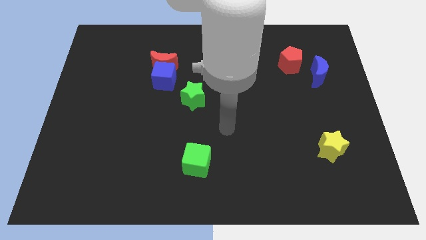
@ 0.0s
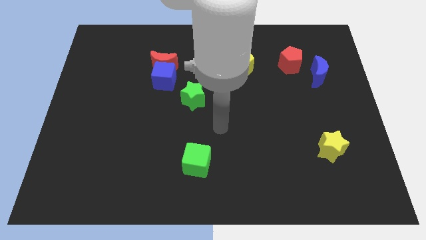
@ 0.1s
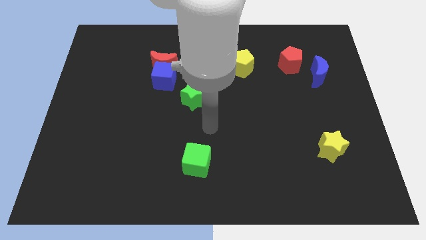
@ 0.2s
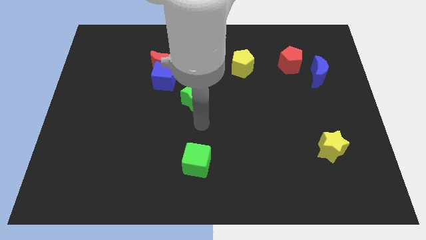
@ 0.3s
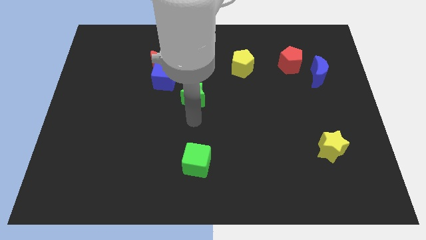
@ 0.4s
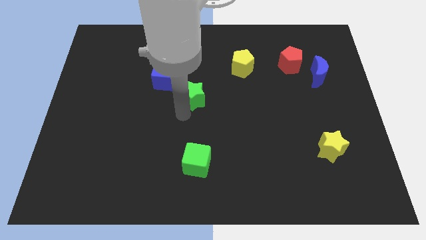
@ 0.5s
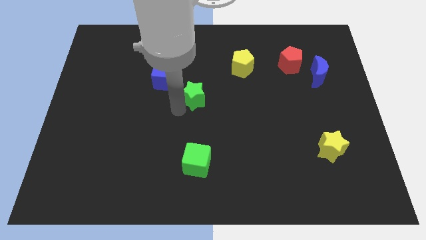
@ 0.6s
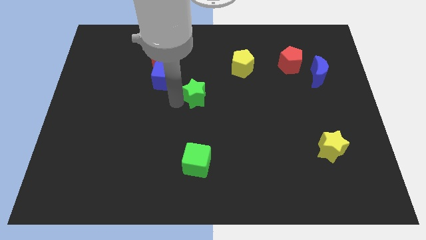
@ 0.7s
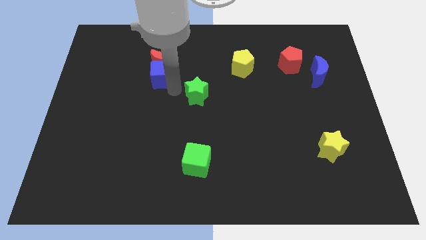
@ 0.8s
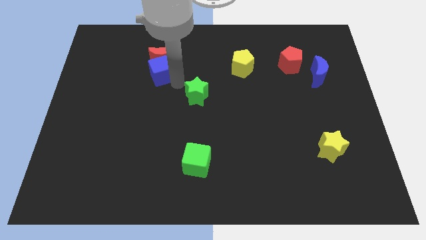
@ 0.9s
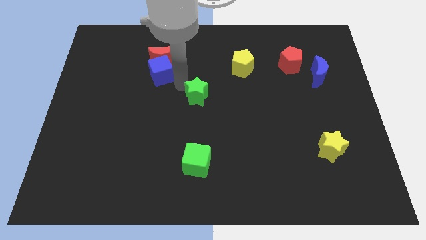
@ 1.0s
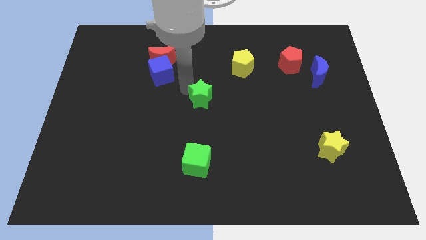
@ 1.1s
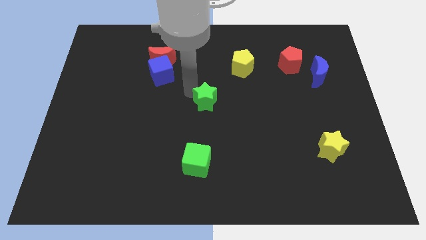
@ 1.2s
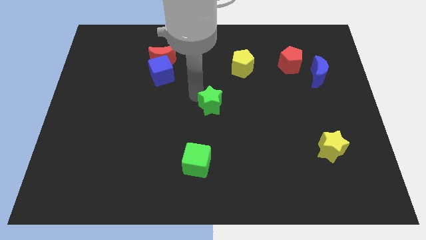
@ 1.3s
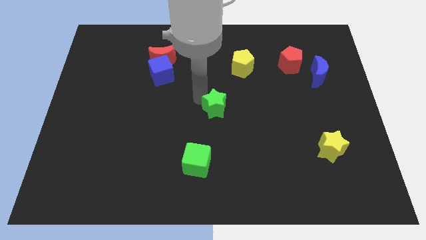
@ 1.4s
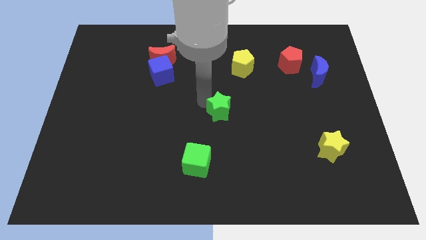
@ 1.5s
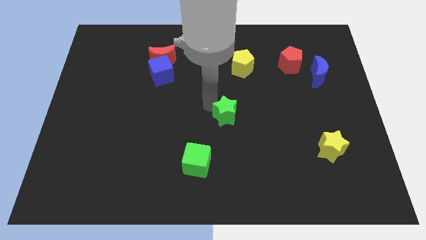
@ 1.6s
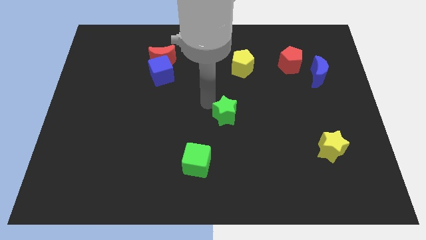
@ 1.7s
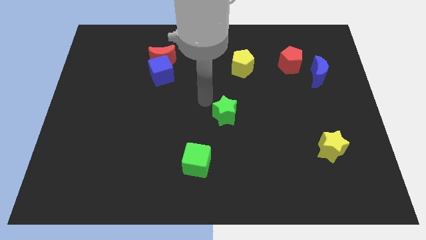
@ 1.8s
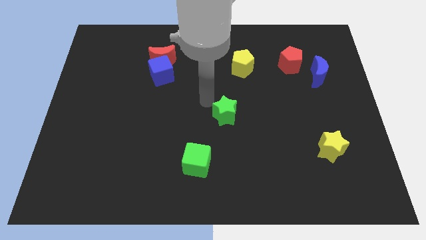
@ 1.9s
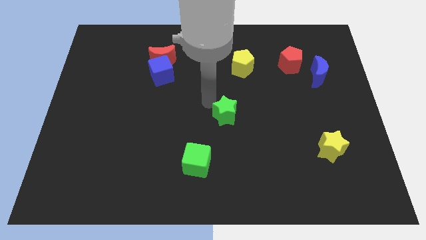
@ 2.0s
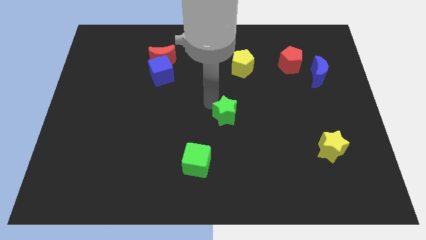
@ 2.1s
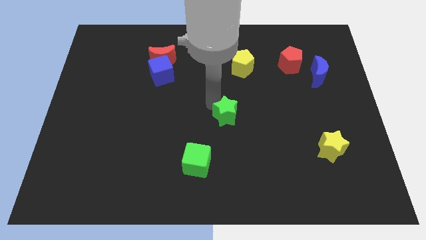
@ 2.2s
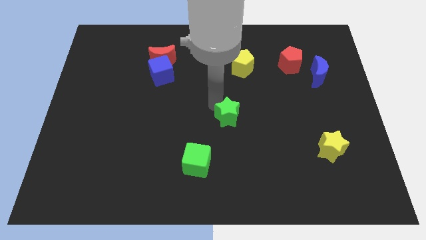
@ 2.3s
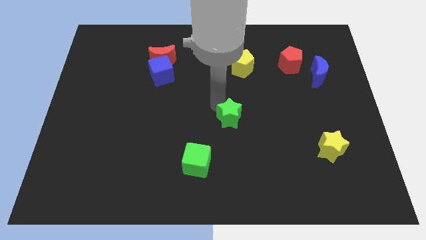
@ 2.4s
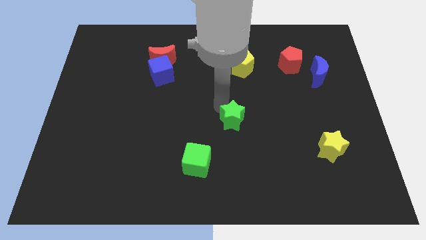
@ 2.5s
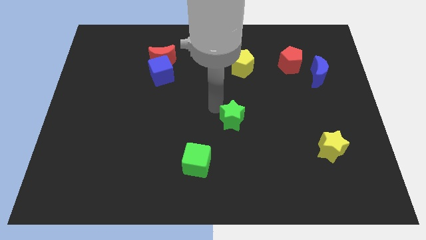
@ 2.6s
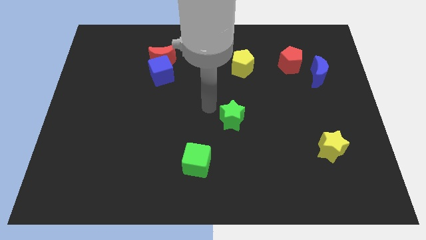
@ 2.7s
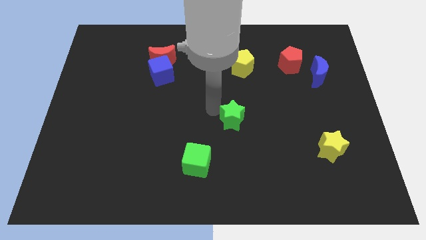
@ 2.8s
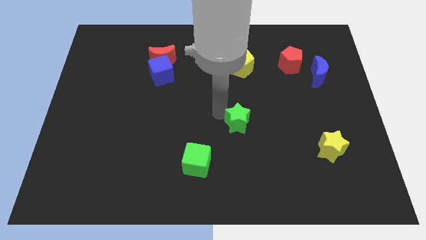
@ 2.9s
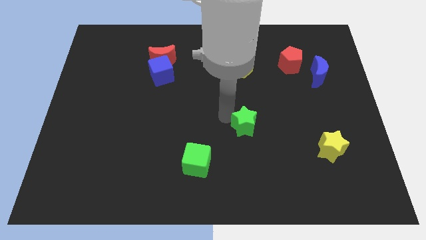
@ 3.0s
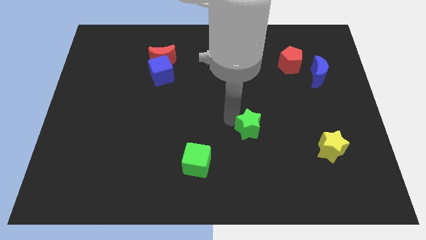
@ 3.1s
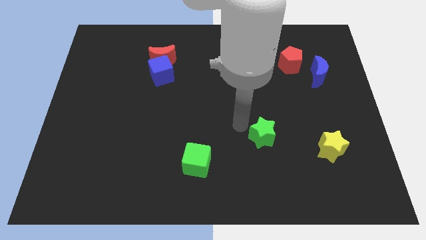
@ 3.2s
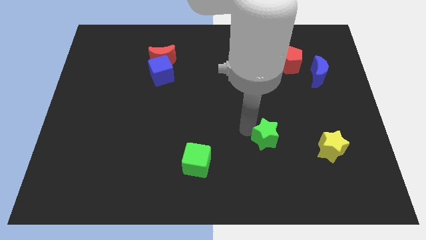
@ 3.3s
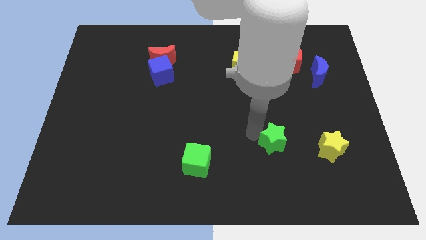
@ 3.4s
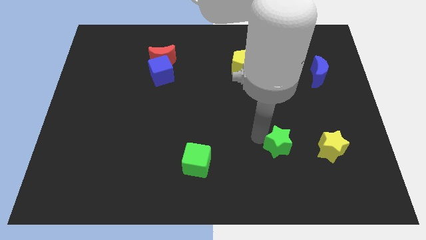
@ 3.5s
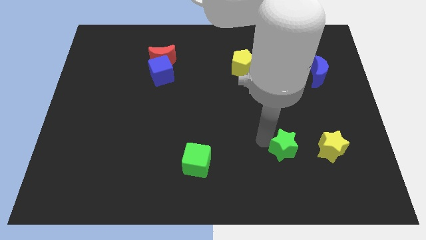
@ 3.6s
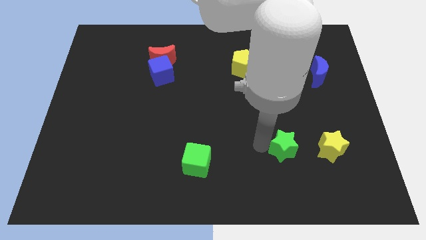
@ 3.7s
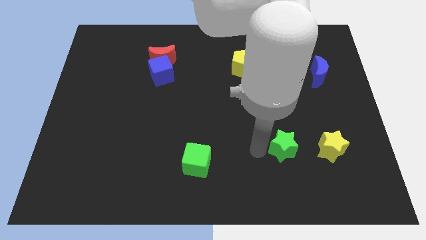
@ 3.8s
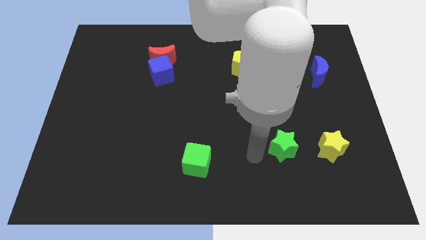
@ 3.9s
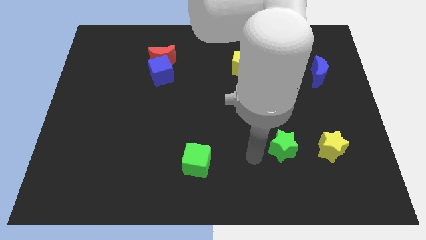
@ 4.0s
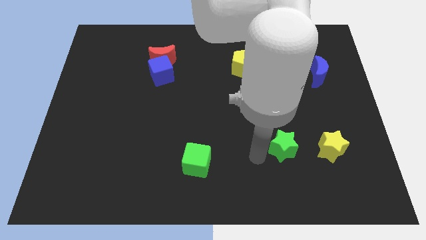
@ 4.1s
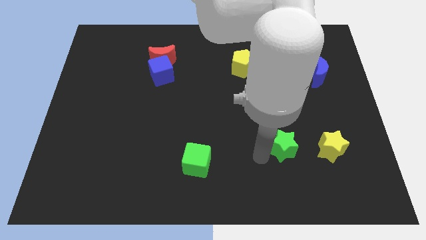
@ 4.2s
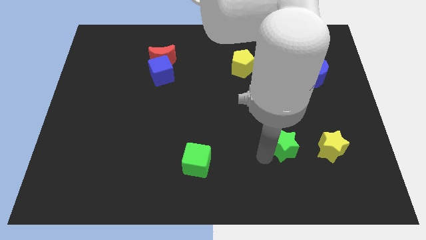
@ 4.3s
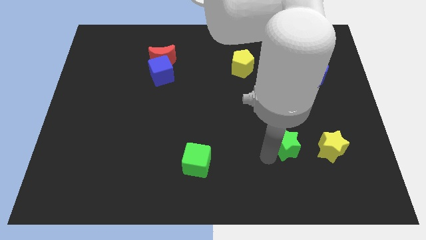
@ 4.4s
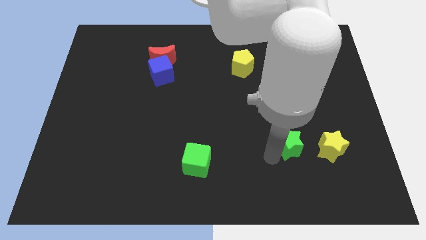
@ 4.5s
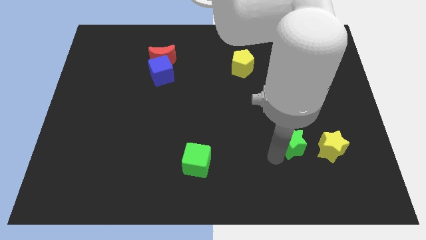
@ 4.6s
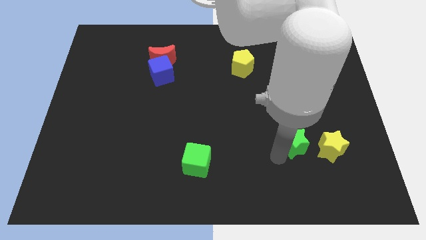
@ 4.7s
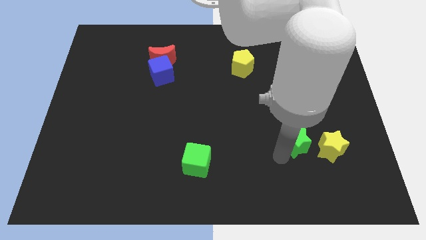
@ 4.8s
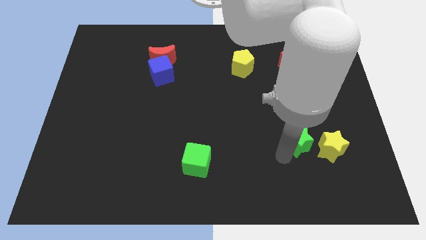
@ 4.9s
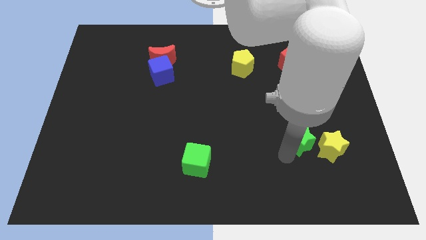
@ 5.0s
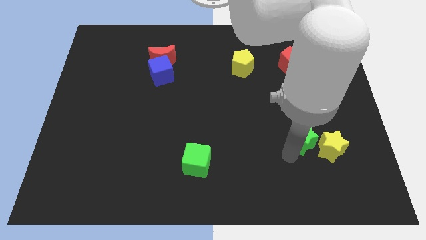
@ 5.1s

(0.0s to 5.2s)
put the green star to the yellow star

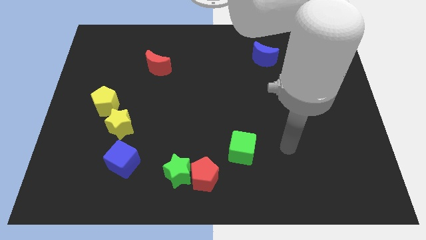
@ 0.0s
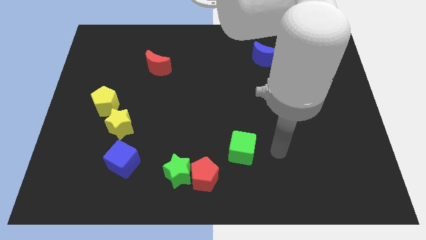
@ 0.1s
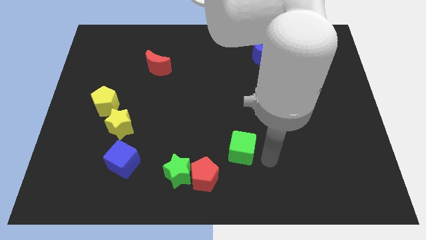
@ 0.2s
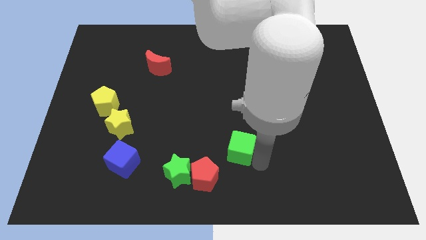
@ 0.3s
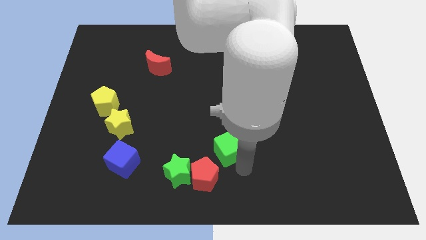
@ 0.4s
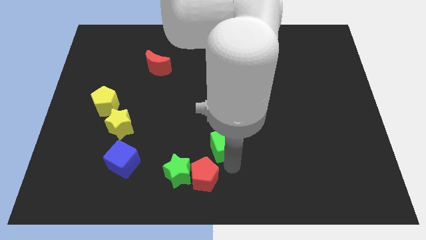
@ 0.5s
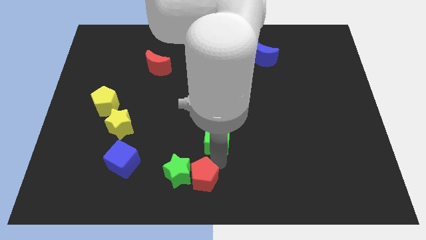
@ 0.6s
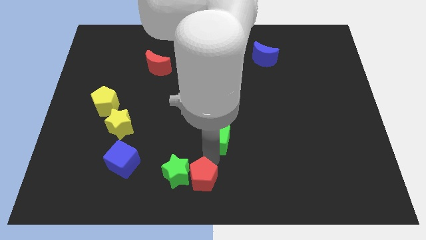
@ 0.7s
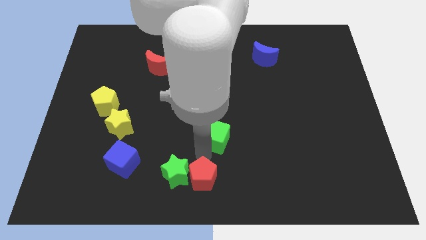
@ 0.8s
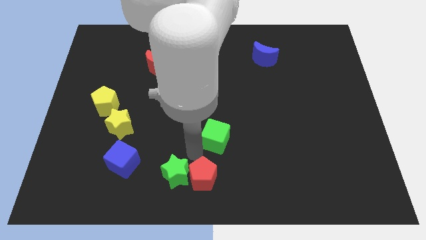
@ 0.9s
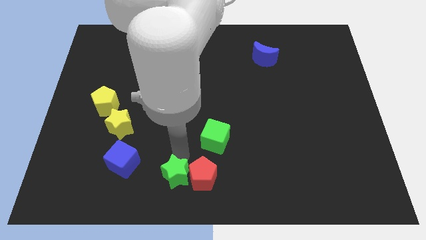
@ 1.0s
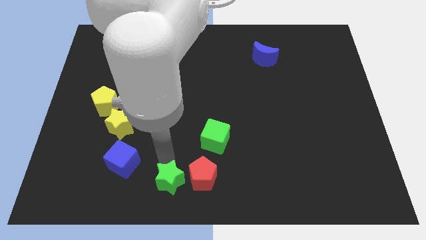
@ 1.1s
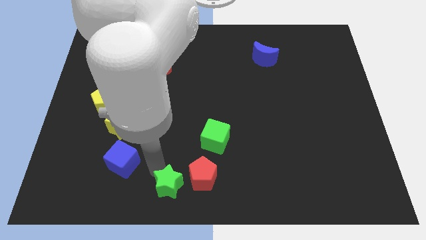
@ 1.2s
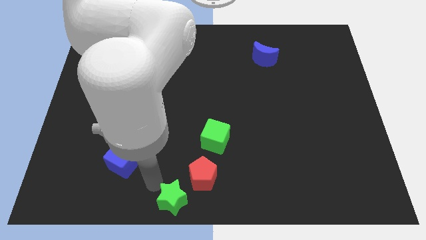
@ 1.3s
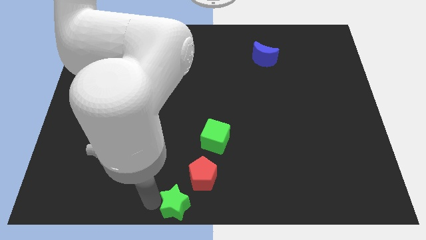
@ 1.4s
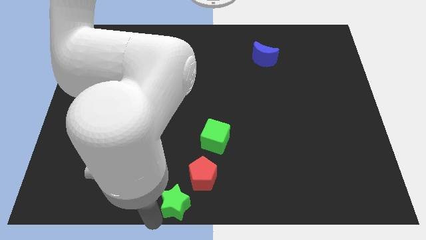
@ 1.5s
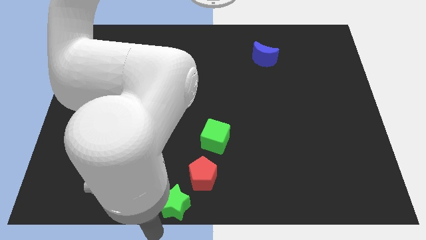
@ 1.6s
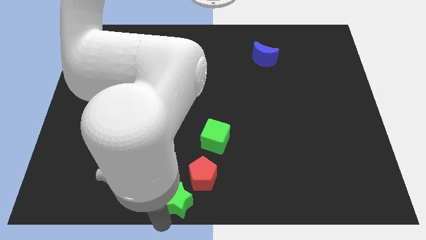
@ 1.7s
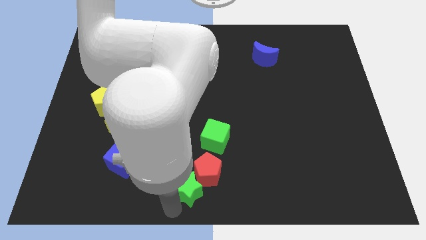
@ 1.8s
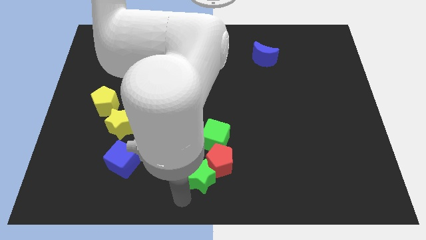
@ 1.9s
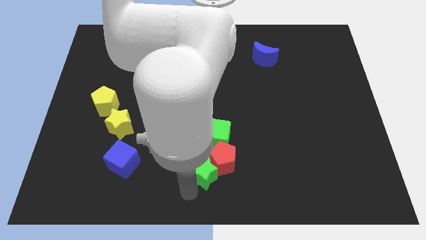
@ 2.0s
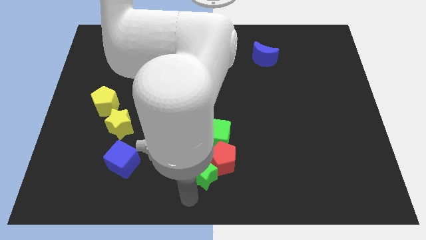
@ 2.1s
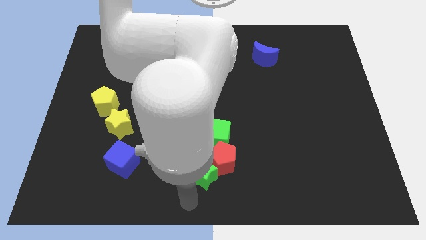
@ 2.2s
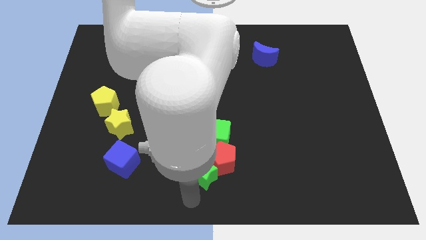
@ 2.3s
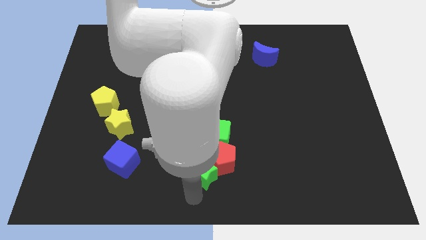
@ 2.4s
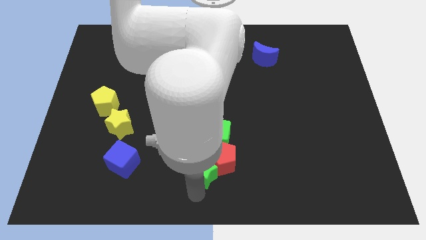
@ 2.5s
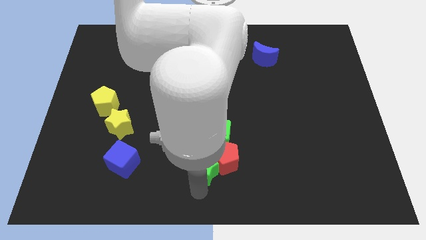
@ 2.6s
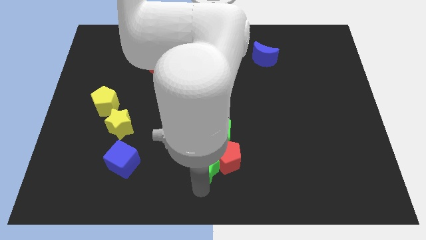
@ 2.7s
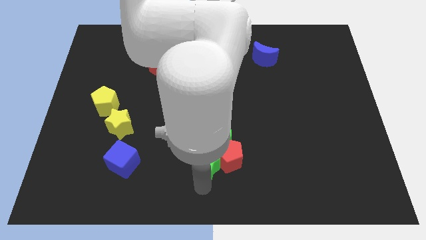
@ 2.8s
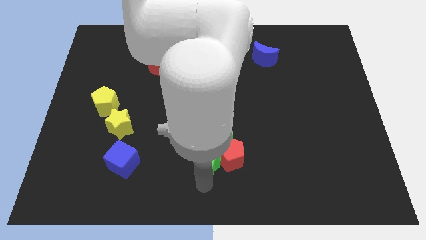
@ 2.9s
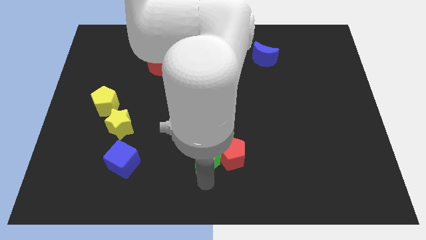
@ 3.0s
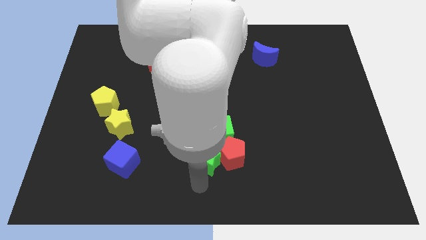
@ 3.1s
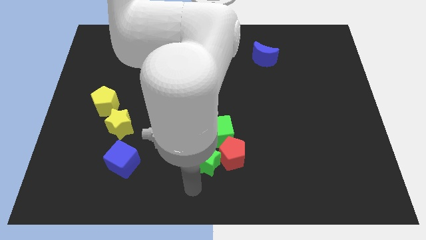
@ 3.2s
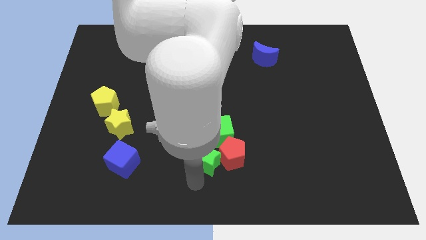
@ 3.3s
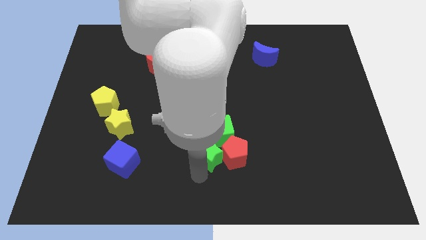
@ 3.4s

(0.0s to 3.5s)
slide the green star to the green cube
